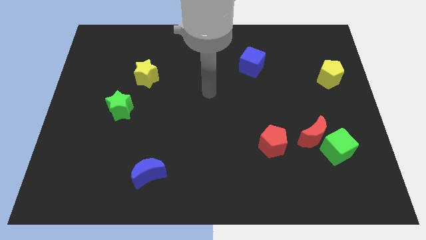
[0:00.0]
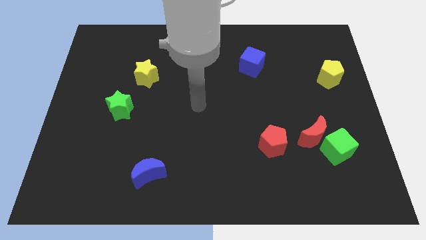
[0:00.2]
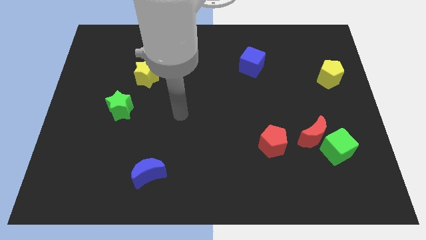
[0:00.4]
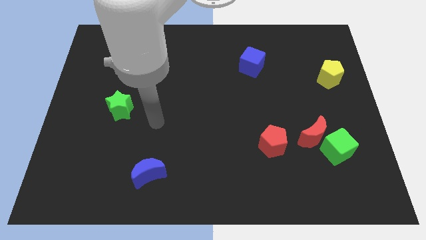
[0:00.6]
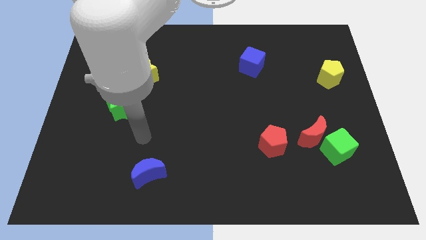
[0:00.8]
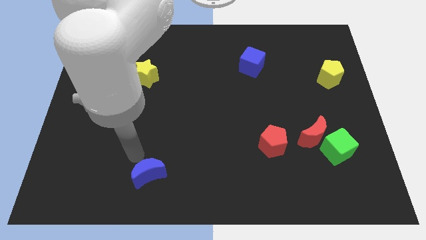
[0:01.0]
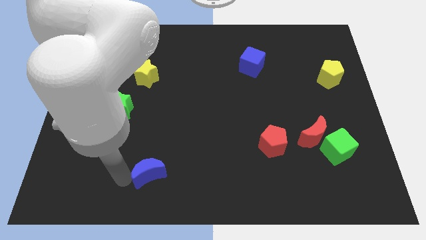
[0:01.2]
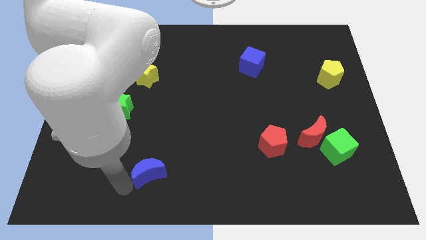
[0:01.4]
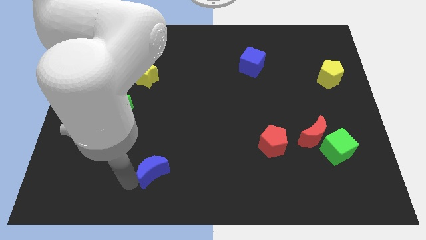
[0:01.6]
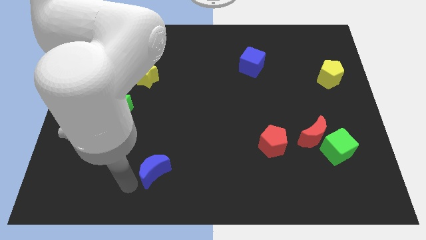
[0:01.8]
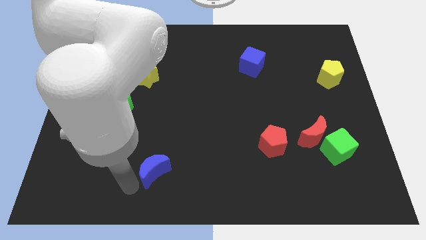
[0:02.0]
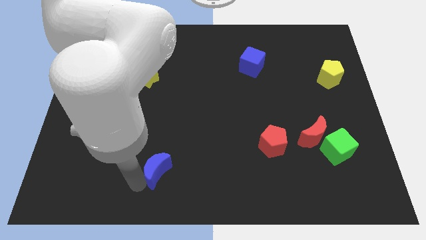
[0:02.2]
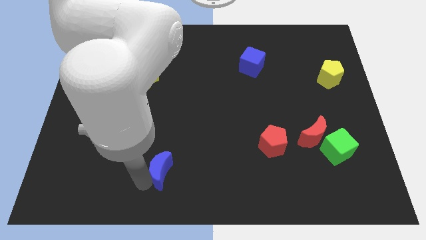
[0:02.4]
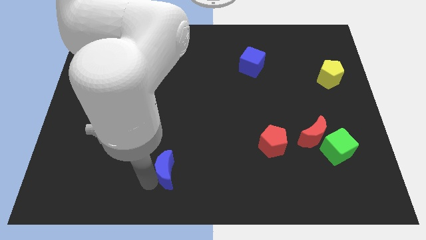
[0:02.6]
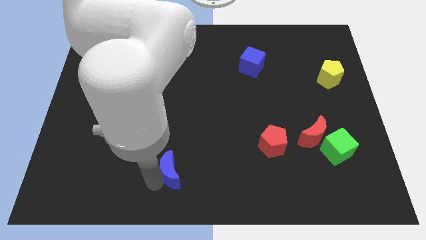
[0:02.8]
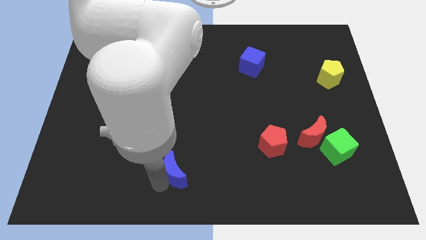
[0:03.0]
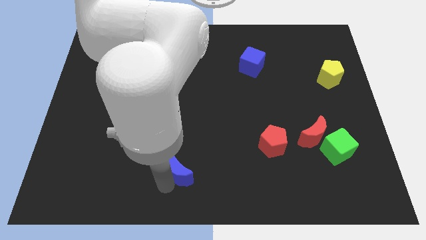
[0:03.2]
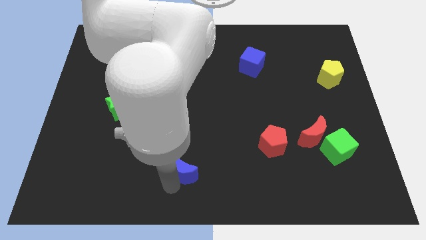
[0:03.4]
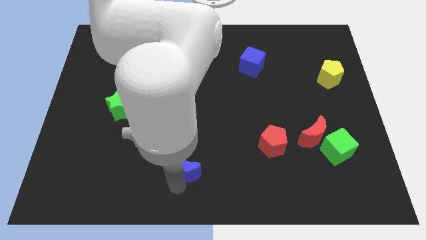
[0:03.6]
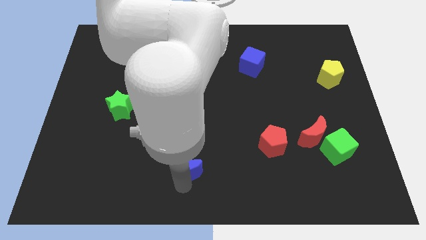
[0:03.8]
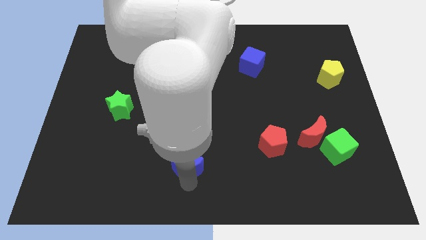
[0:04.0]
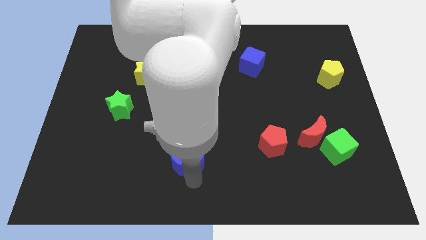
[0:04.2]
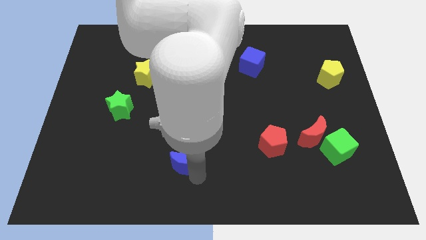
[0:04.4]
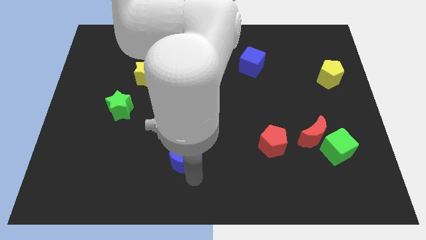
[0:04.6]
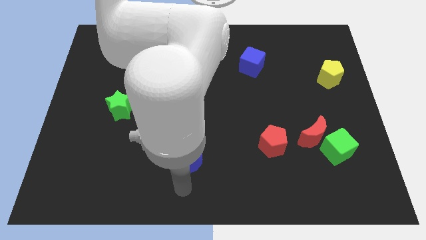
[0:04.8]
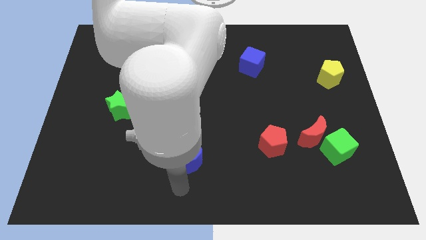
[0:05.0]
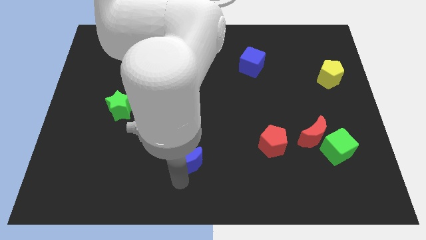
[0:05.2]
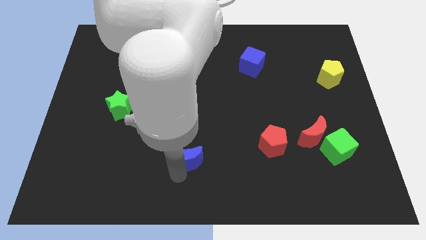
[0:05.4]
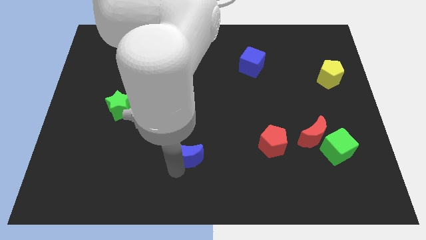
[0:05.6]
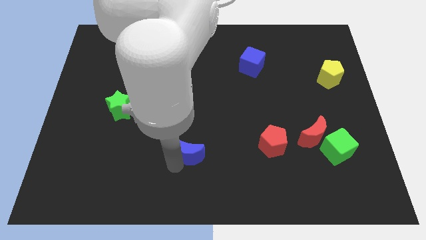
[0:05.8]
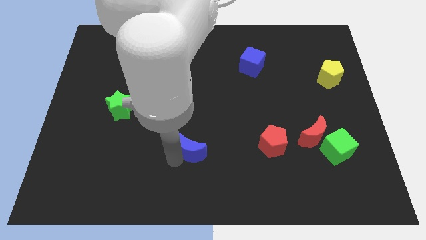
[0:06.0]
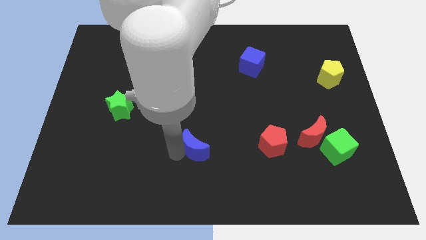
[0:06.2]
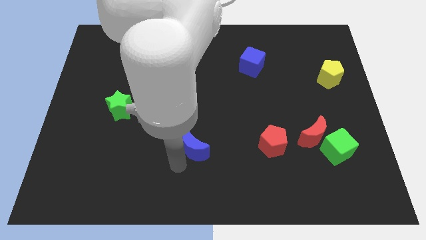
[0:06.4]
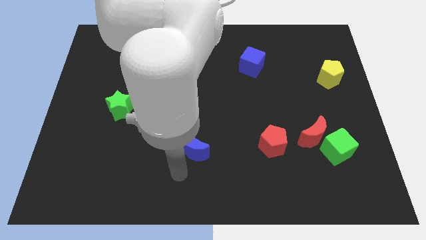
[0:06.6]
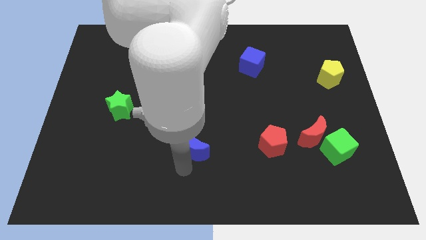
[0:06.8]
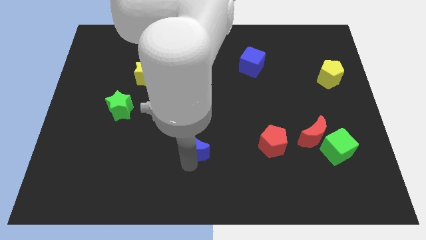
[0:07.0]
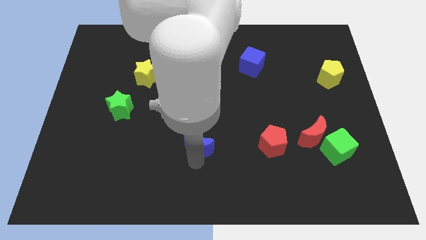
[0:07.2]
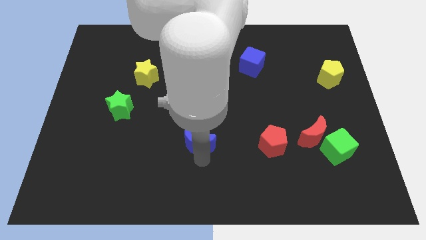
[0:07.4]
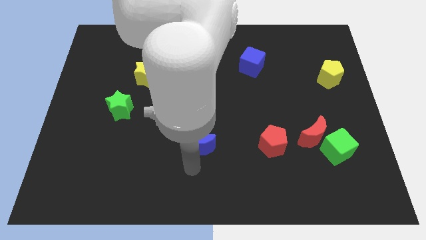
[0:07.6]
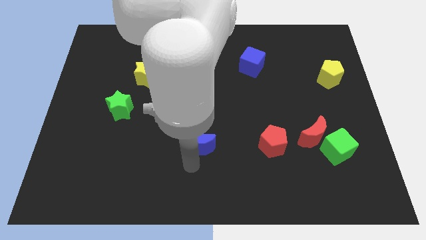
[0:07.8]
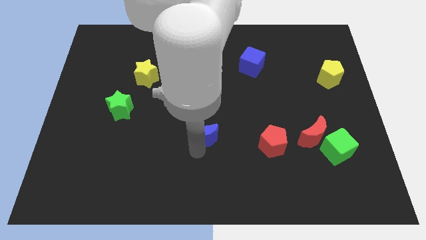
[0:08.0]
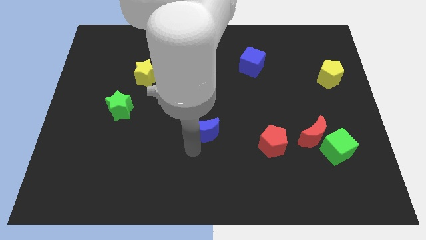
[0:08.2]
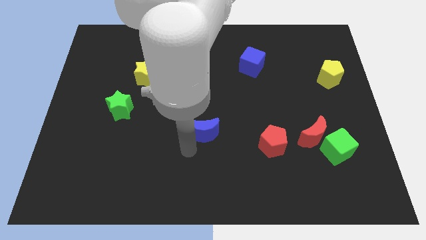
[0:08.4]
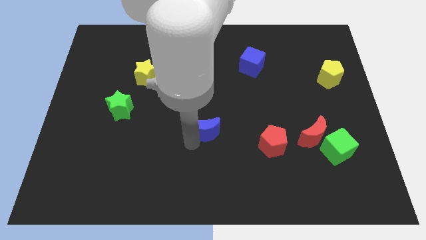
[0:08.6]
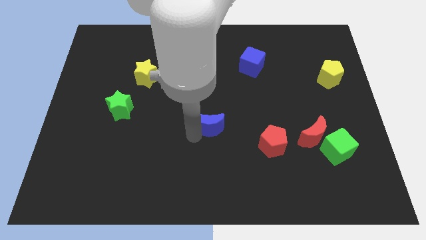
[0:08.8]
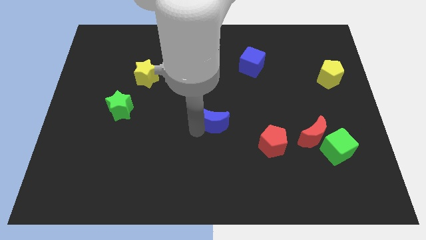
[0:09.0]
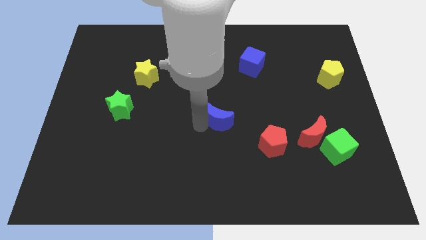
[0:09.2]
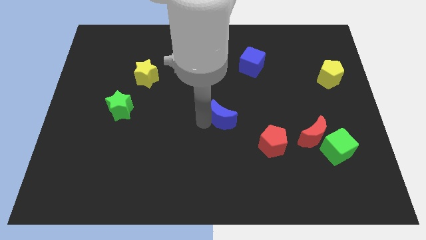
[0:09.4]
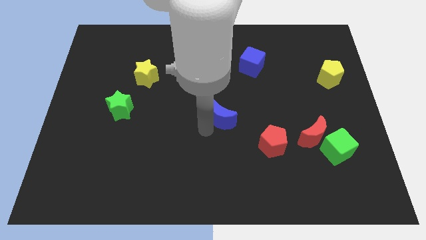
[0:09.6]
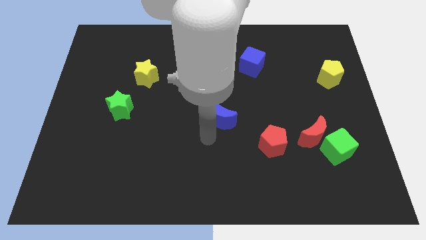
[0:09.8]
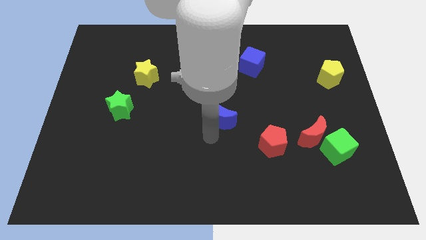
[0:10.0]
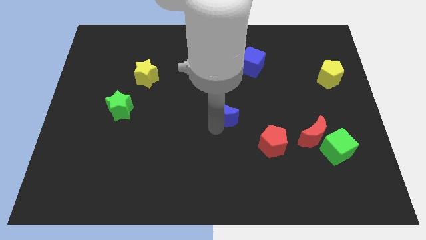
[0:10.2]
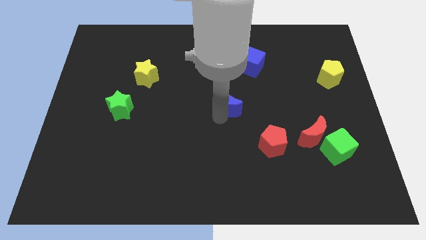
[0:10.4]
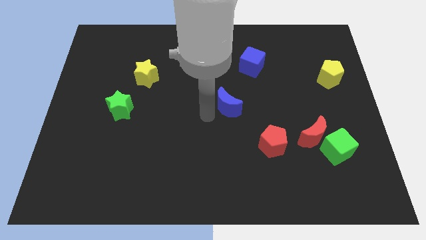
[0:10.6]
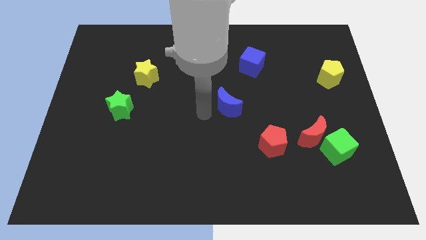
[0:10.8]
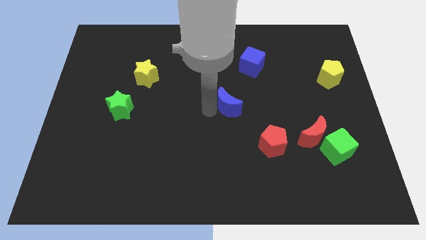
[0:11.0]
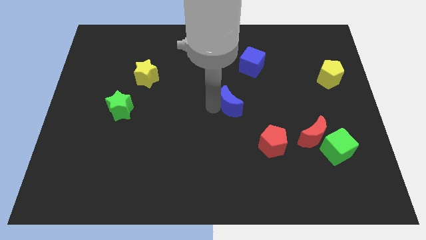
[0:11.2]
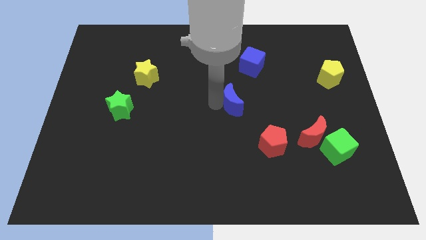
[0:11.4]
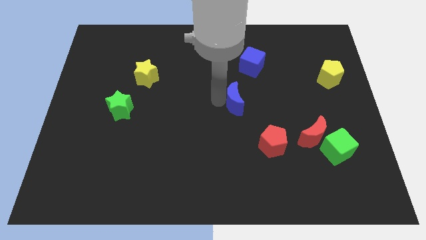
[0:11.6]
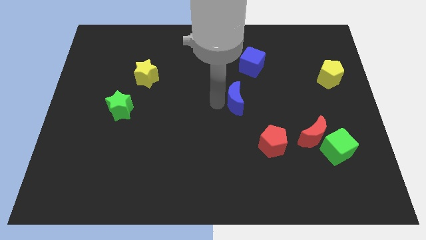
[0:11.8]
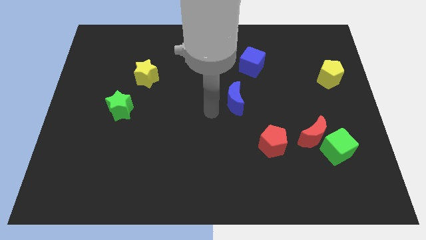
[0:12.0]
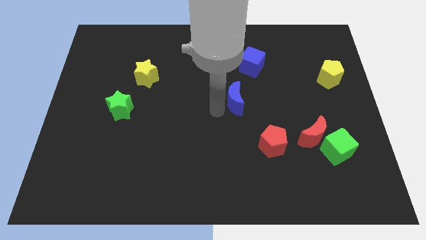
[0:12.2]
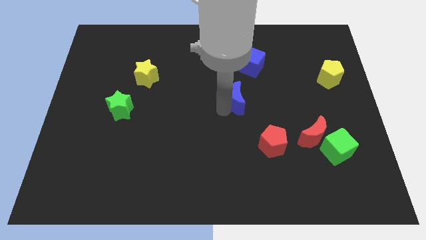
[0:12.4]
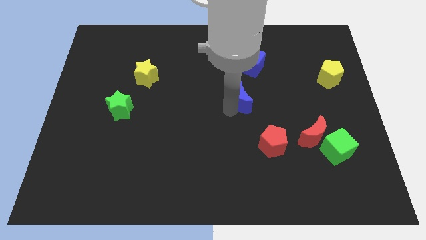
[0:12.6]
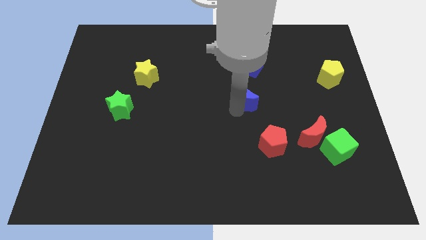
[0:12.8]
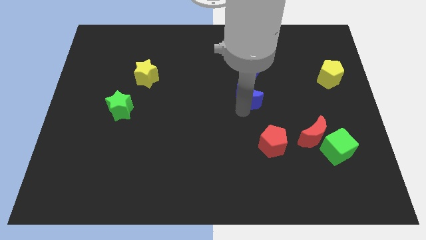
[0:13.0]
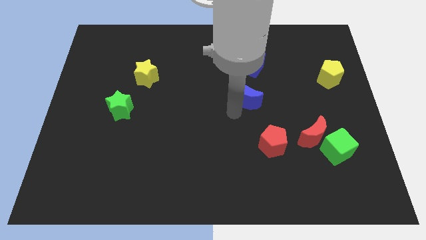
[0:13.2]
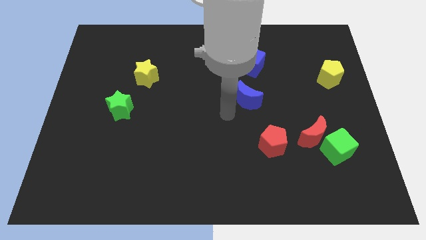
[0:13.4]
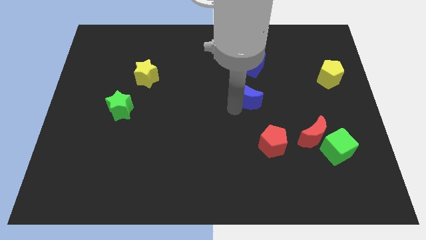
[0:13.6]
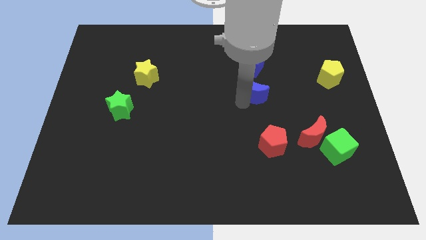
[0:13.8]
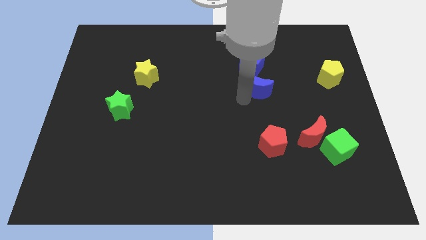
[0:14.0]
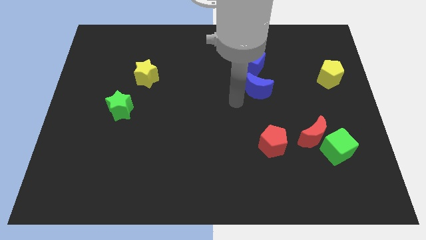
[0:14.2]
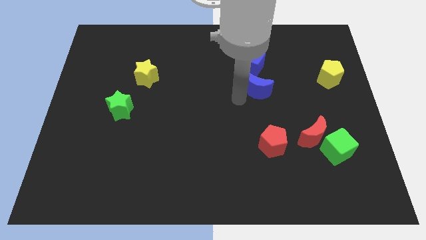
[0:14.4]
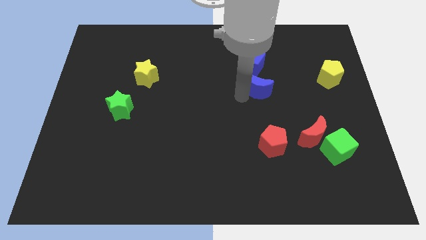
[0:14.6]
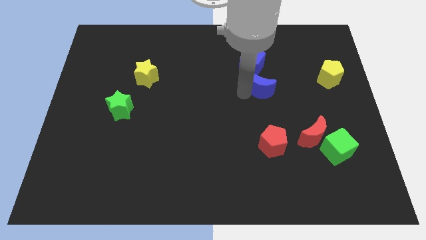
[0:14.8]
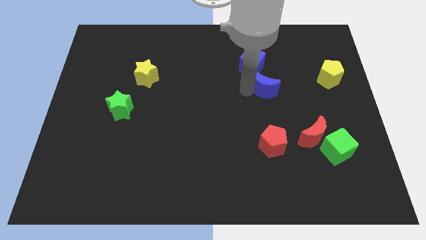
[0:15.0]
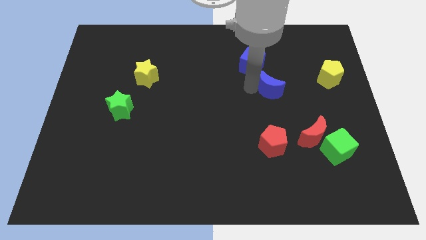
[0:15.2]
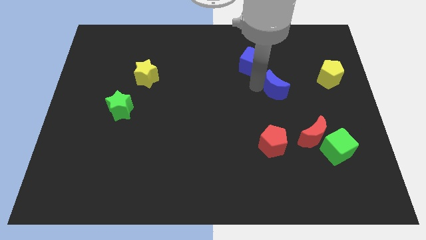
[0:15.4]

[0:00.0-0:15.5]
put the blue moon just left of the yellow pentagon
